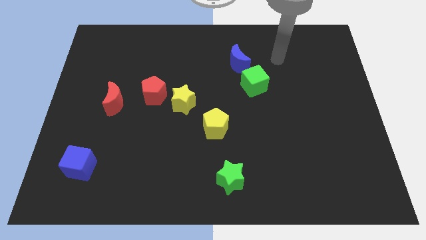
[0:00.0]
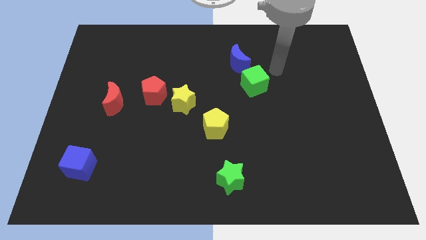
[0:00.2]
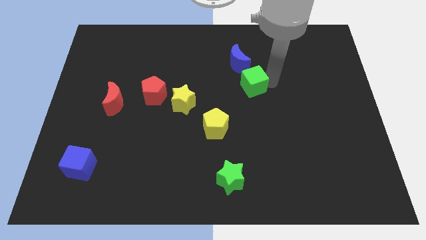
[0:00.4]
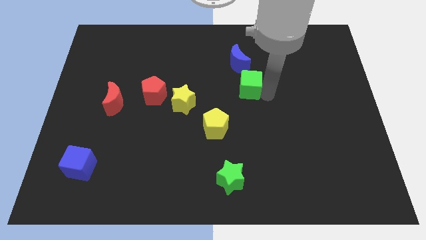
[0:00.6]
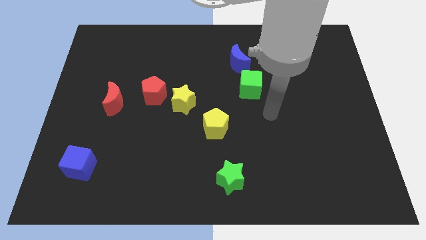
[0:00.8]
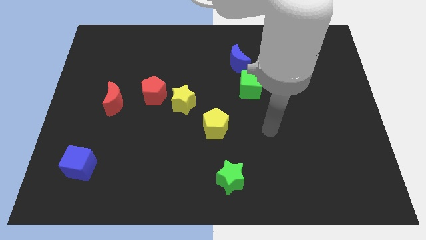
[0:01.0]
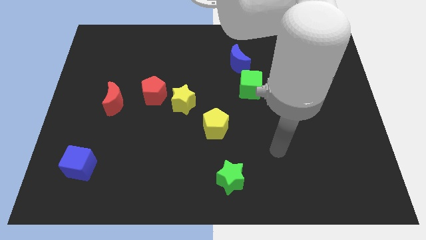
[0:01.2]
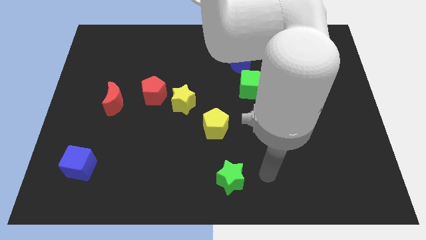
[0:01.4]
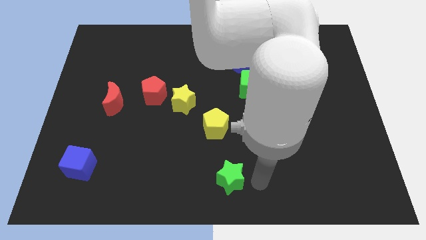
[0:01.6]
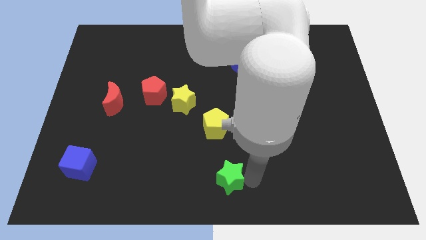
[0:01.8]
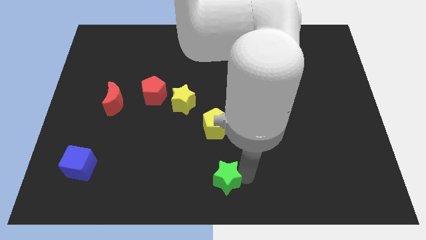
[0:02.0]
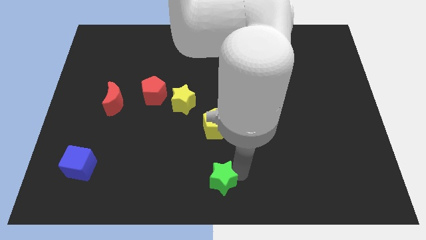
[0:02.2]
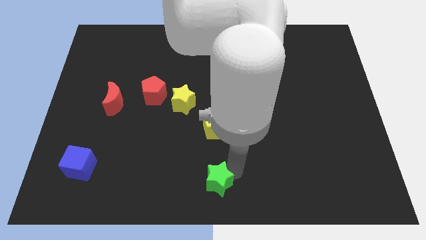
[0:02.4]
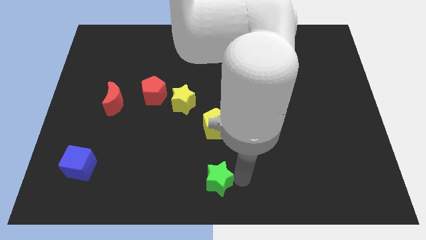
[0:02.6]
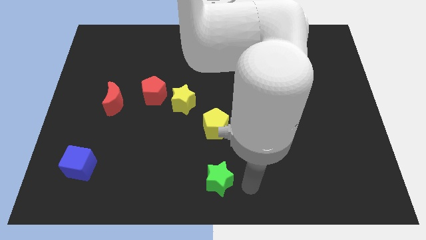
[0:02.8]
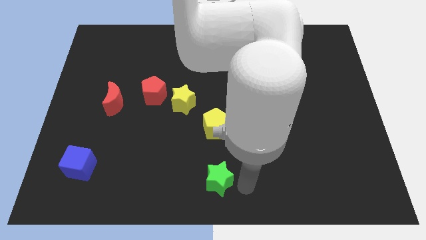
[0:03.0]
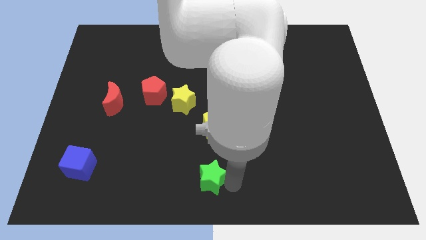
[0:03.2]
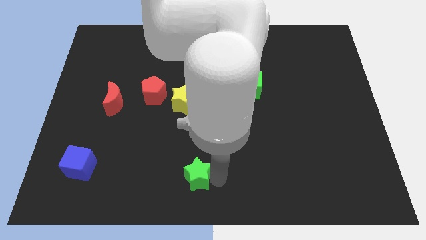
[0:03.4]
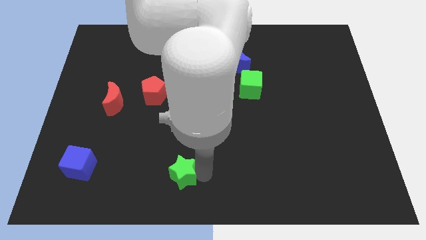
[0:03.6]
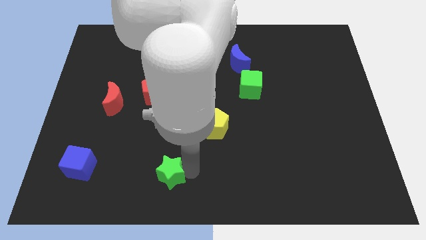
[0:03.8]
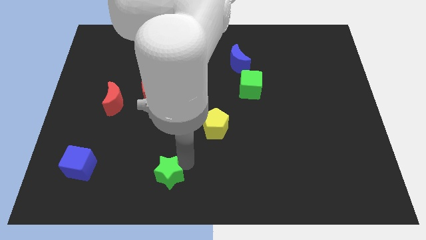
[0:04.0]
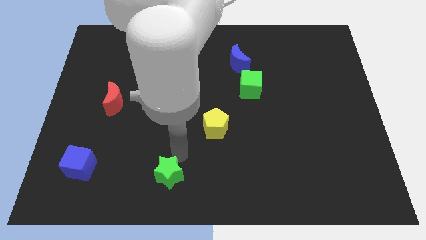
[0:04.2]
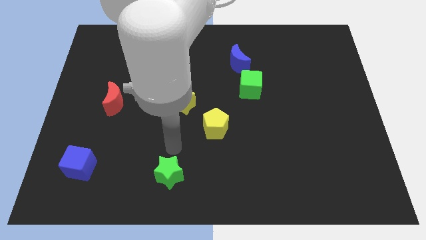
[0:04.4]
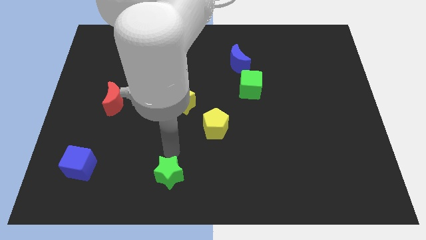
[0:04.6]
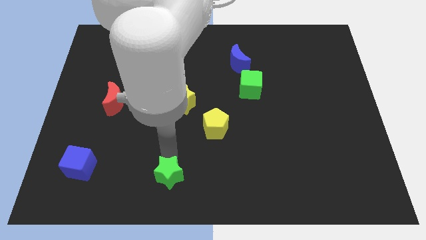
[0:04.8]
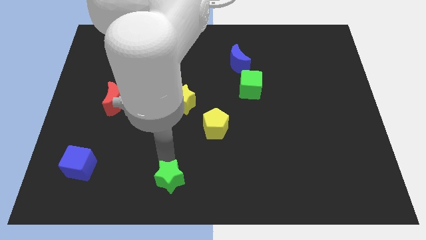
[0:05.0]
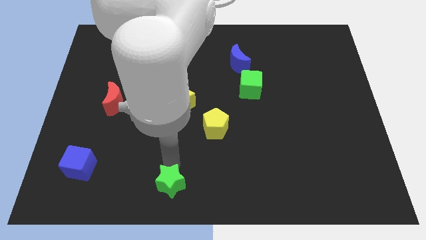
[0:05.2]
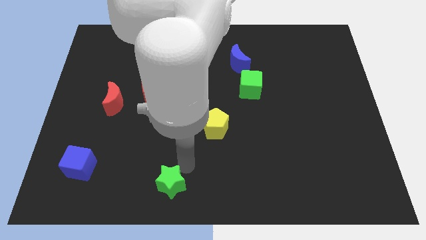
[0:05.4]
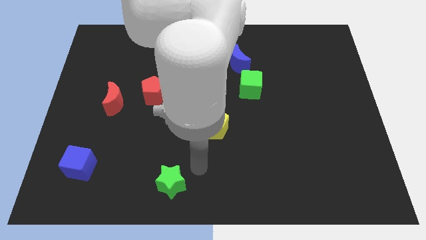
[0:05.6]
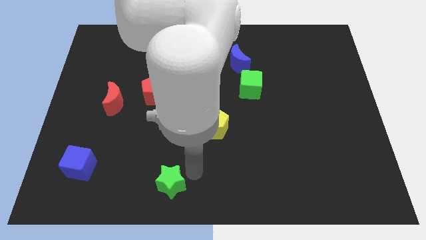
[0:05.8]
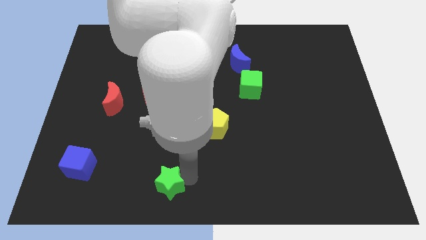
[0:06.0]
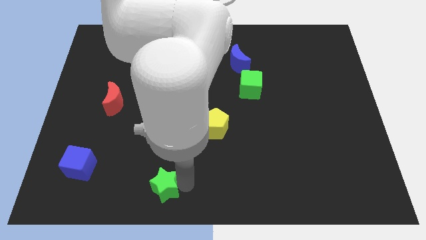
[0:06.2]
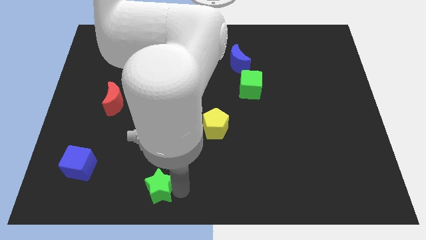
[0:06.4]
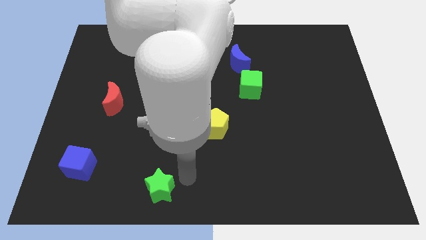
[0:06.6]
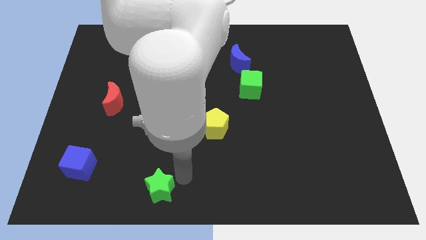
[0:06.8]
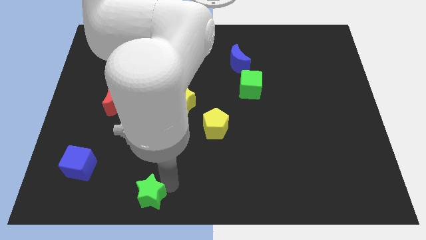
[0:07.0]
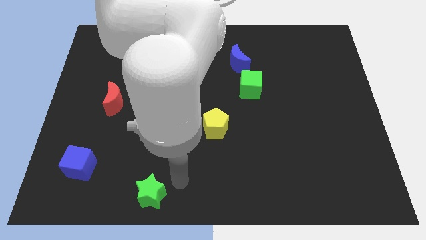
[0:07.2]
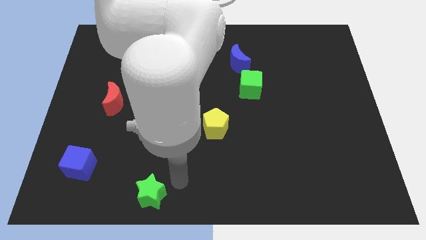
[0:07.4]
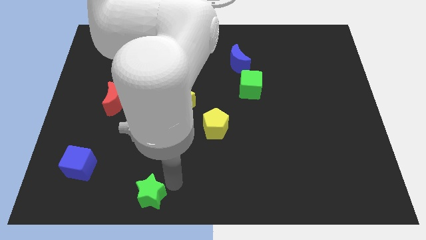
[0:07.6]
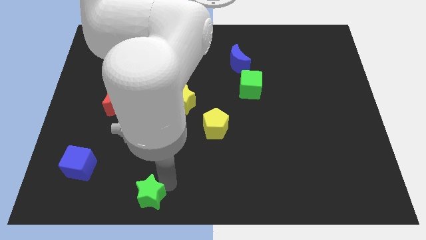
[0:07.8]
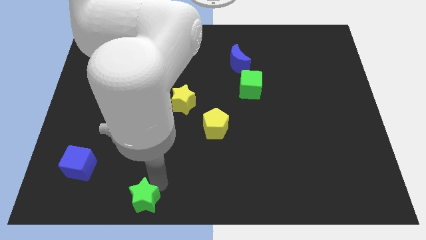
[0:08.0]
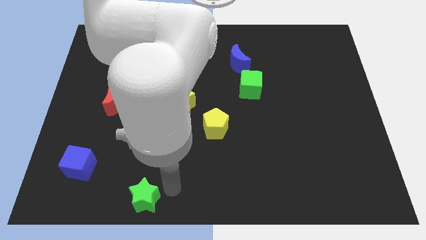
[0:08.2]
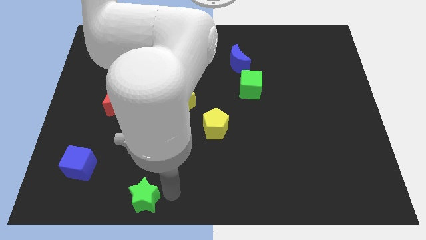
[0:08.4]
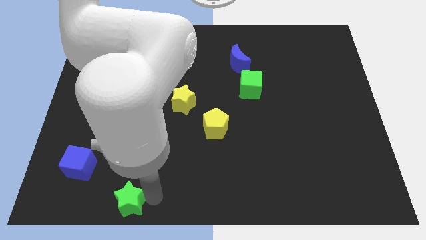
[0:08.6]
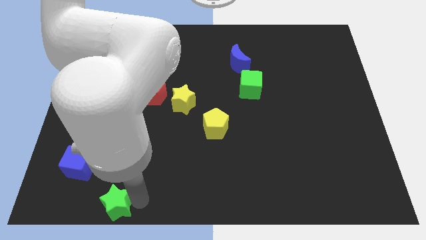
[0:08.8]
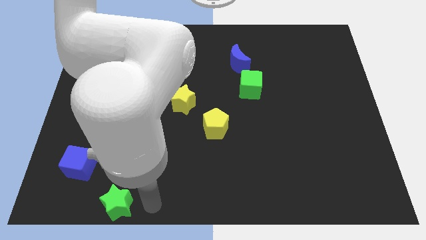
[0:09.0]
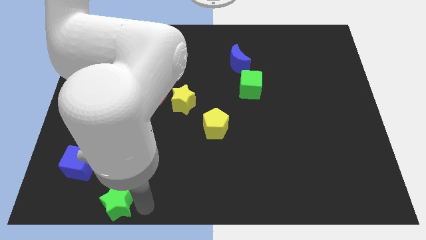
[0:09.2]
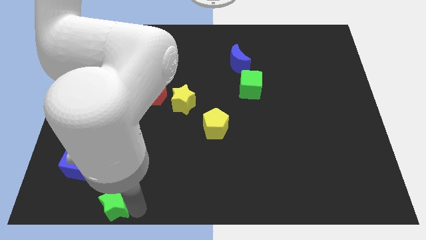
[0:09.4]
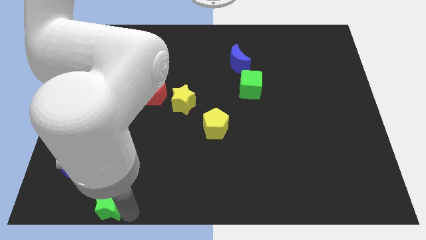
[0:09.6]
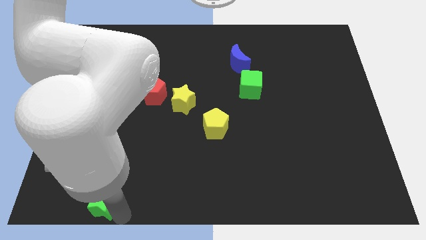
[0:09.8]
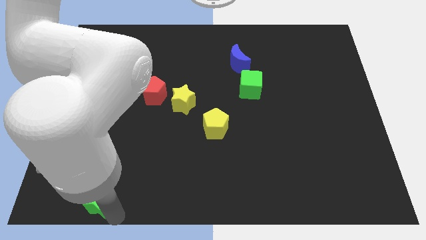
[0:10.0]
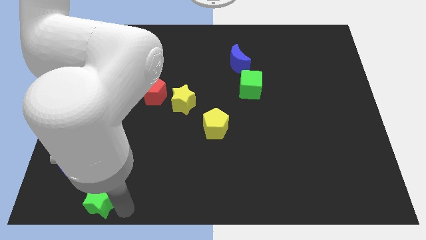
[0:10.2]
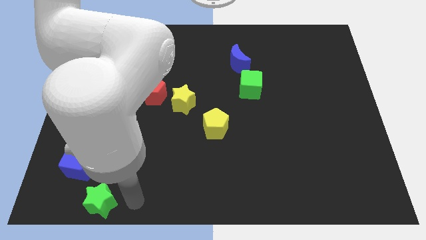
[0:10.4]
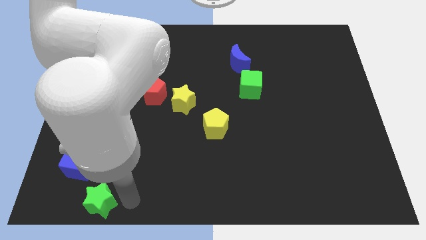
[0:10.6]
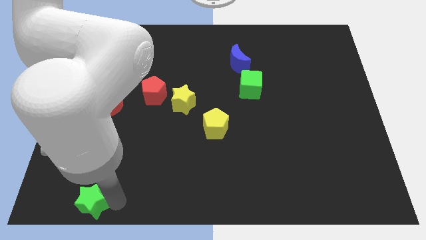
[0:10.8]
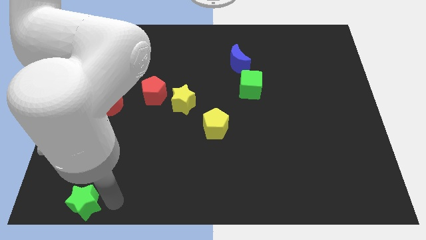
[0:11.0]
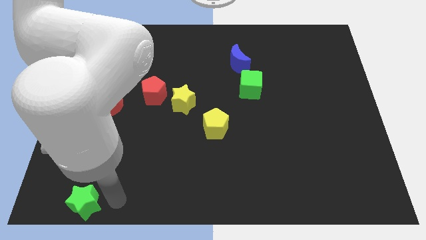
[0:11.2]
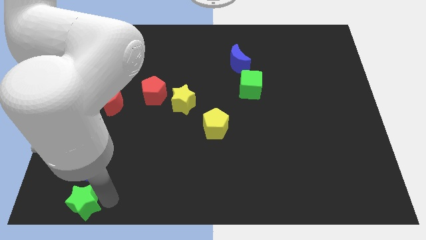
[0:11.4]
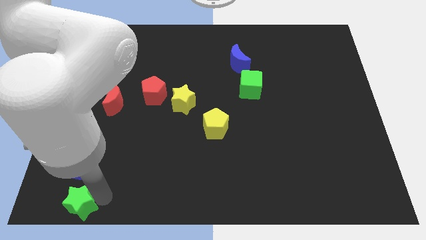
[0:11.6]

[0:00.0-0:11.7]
slide the green star to the bottom left
